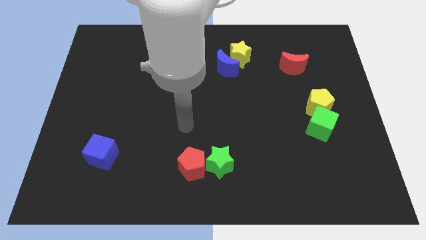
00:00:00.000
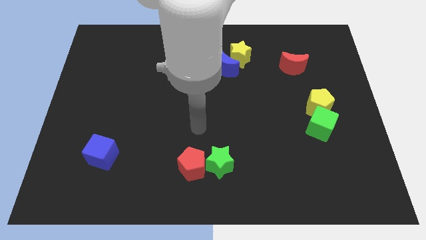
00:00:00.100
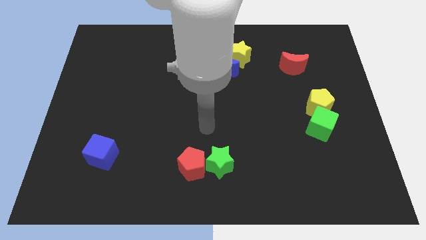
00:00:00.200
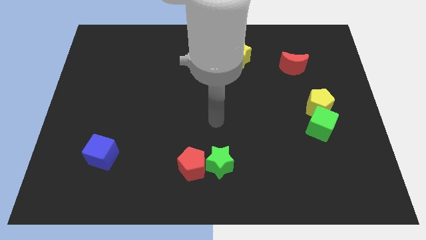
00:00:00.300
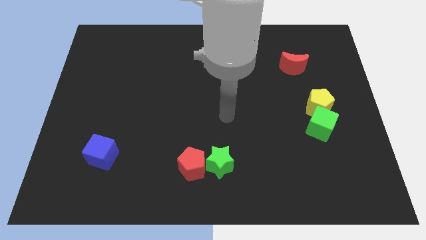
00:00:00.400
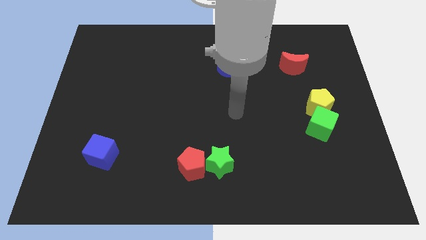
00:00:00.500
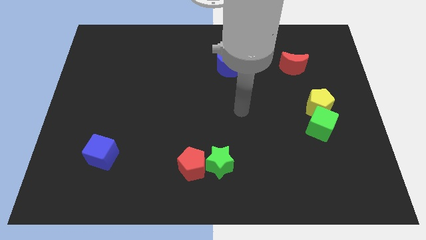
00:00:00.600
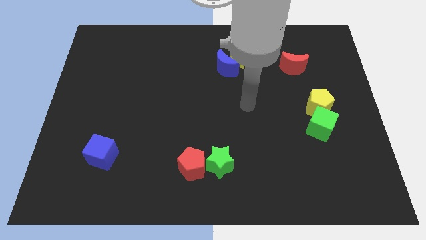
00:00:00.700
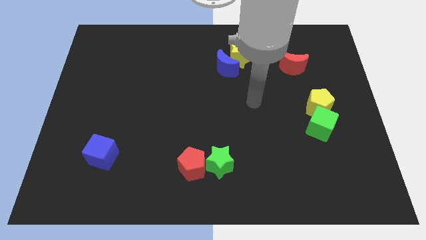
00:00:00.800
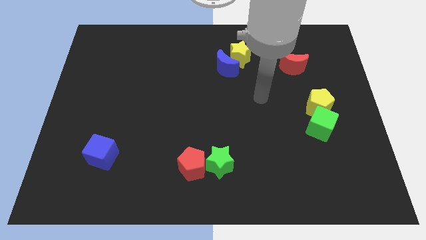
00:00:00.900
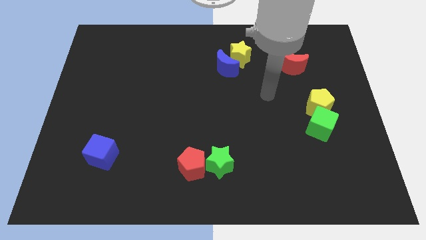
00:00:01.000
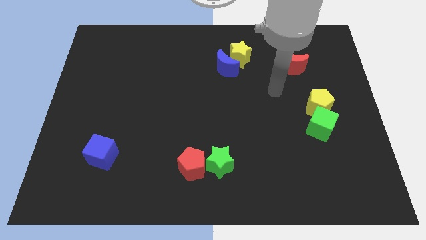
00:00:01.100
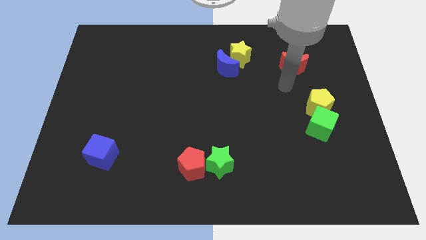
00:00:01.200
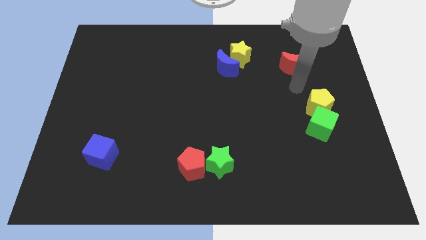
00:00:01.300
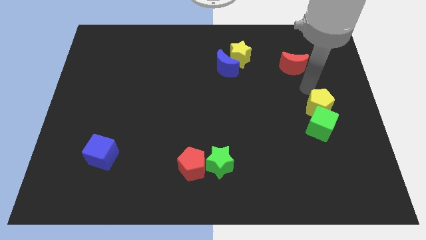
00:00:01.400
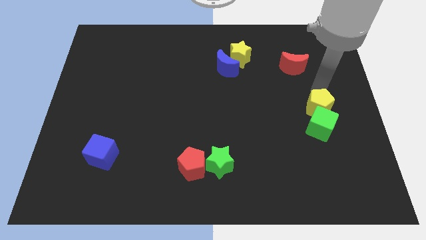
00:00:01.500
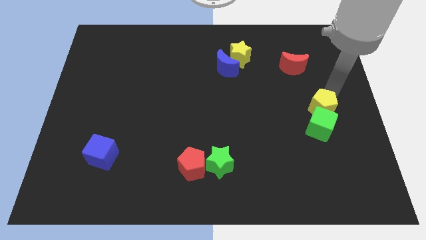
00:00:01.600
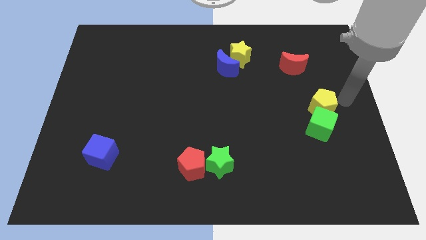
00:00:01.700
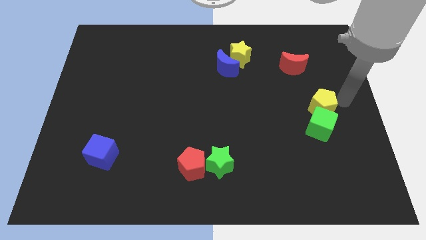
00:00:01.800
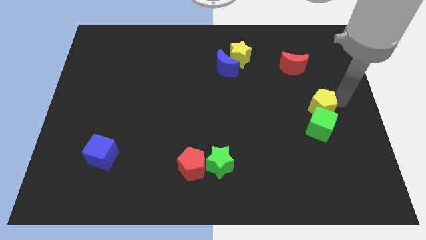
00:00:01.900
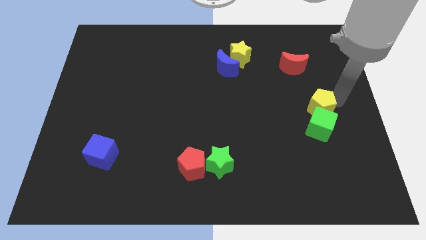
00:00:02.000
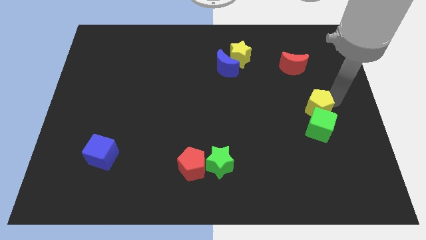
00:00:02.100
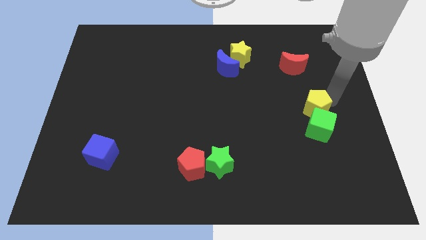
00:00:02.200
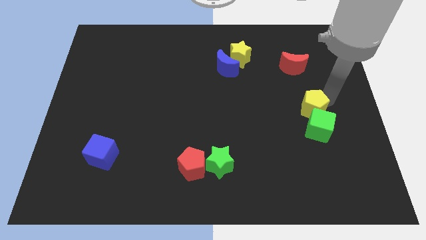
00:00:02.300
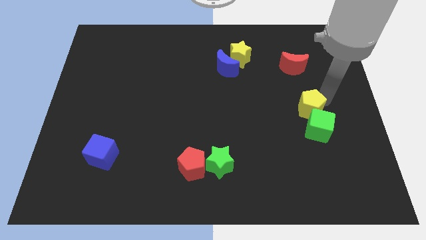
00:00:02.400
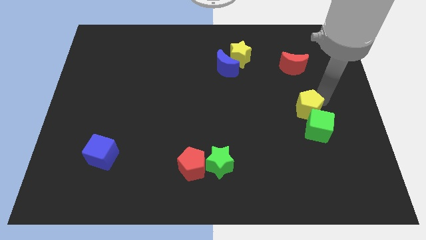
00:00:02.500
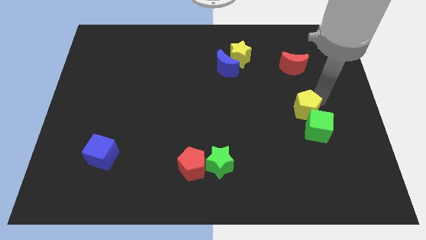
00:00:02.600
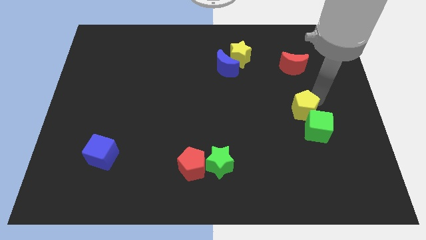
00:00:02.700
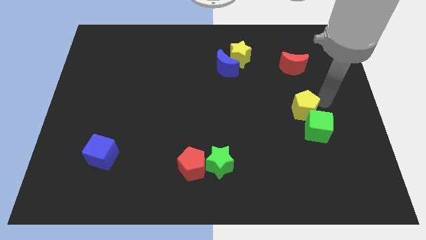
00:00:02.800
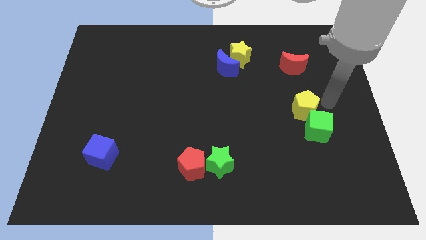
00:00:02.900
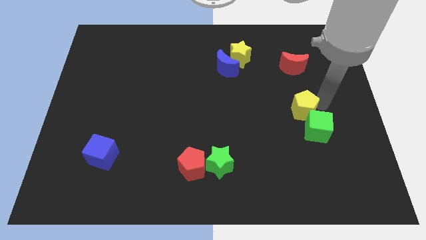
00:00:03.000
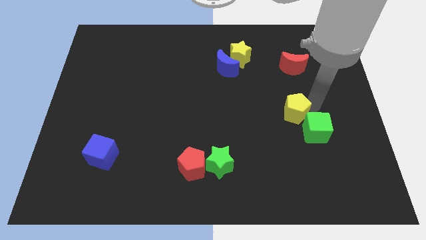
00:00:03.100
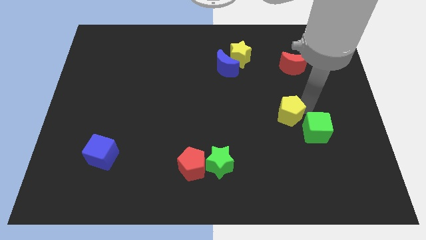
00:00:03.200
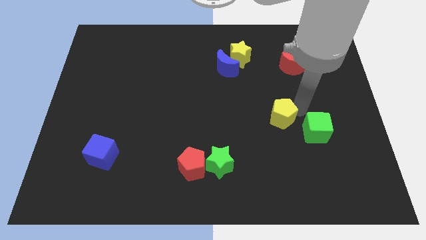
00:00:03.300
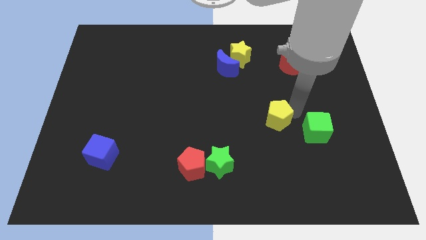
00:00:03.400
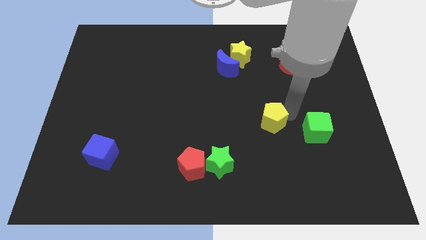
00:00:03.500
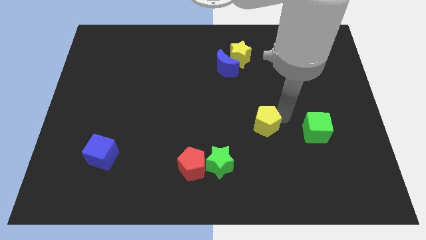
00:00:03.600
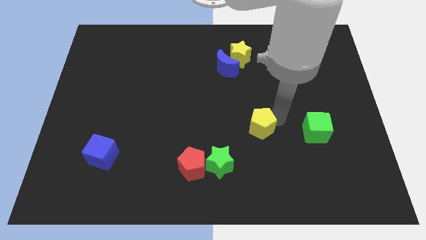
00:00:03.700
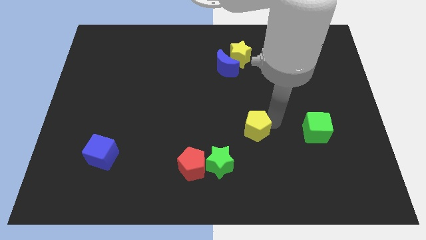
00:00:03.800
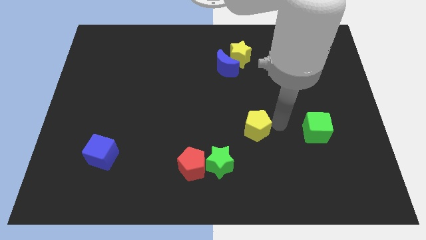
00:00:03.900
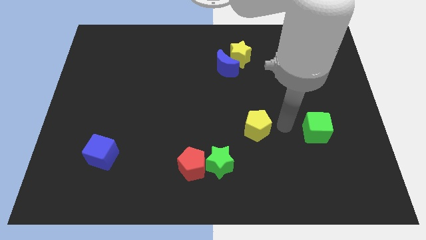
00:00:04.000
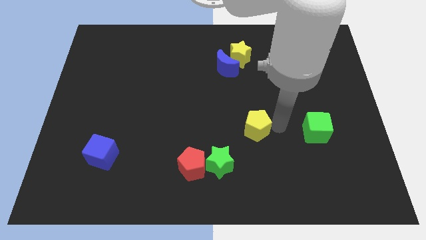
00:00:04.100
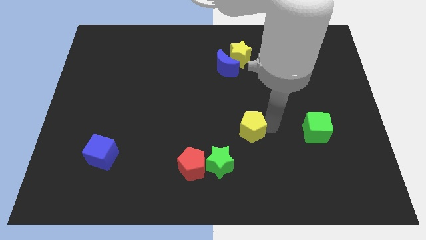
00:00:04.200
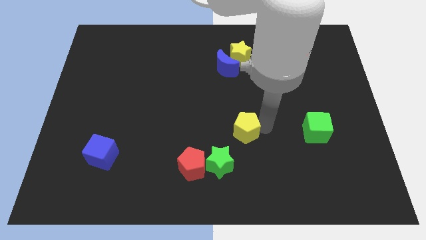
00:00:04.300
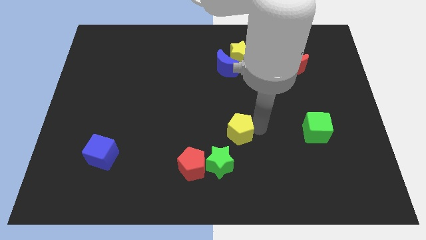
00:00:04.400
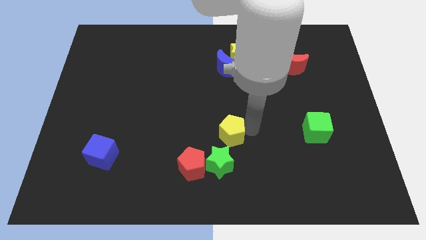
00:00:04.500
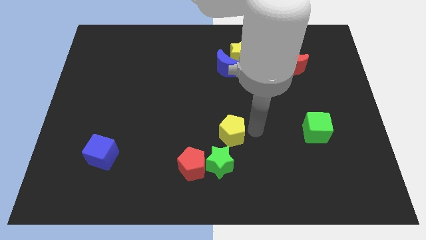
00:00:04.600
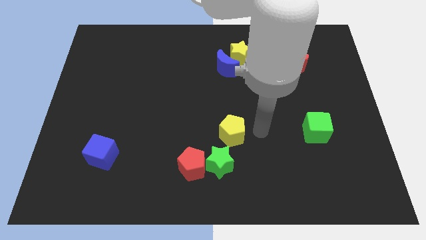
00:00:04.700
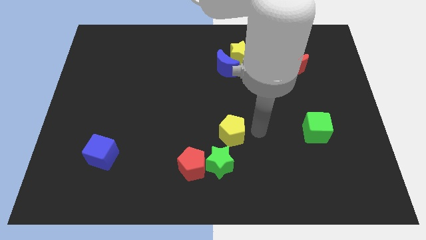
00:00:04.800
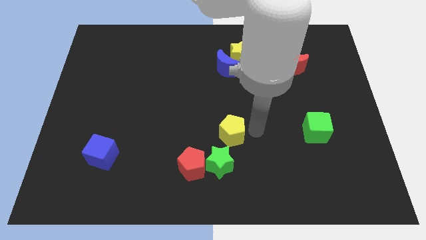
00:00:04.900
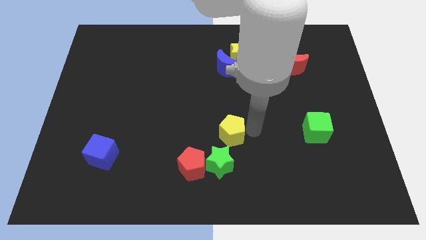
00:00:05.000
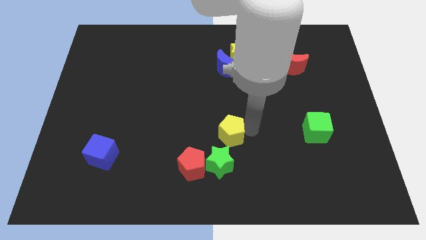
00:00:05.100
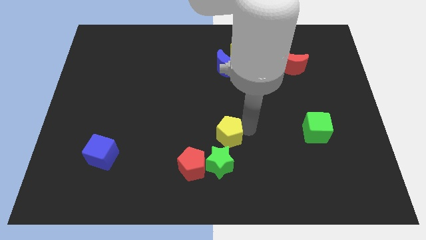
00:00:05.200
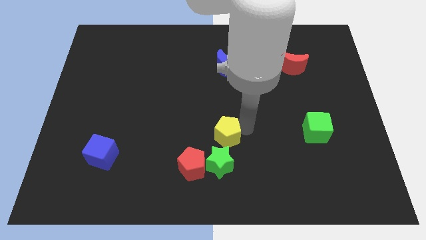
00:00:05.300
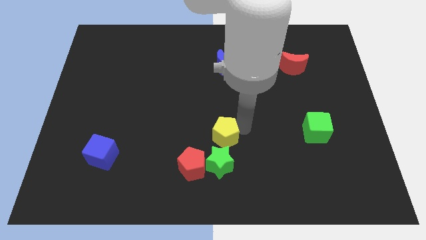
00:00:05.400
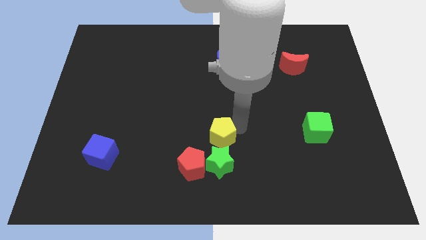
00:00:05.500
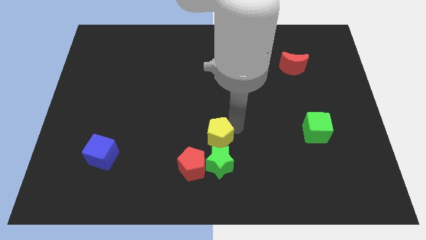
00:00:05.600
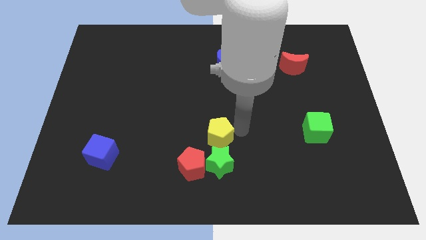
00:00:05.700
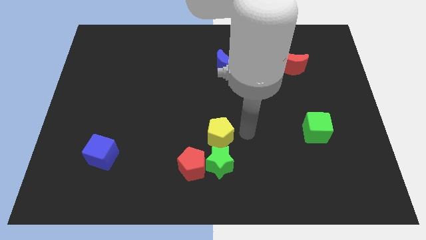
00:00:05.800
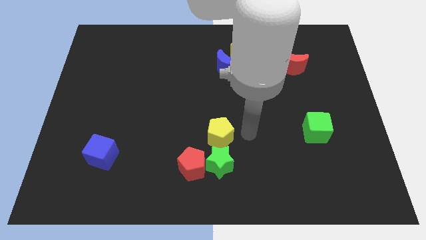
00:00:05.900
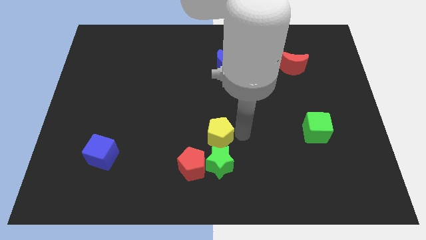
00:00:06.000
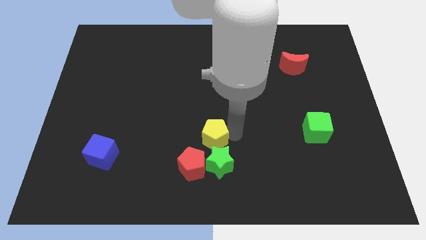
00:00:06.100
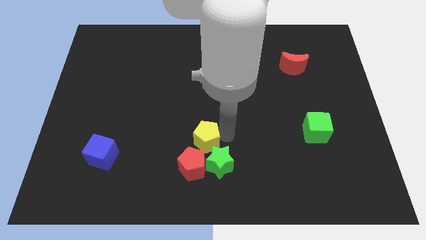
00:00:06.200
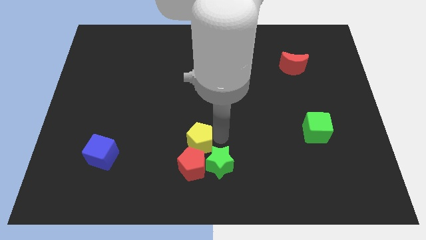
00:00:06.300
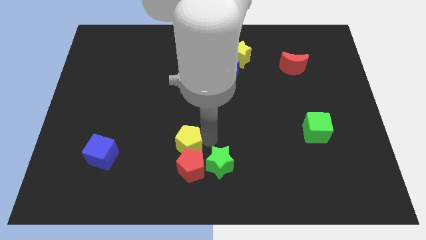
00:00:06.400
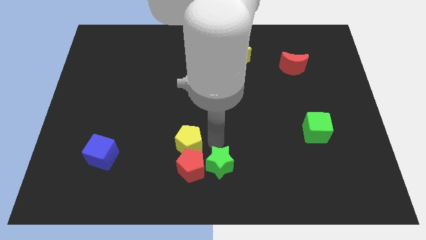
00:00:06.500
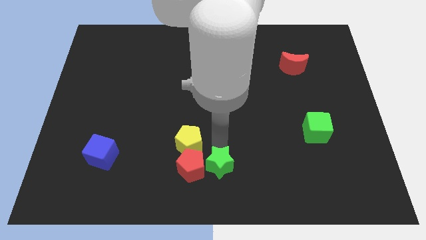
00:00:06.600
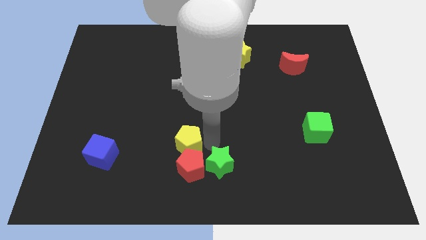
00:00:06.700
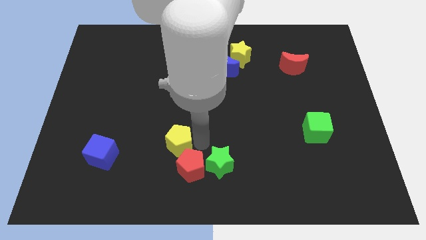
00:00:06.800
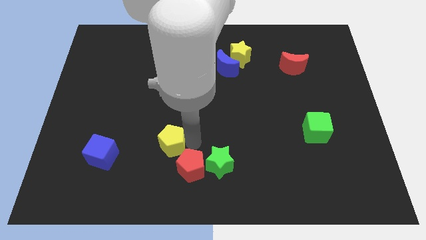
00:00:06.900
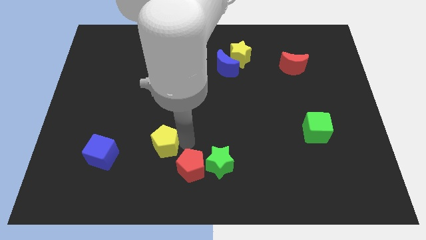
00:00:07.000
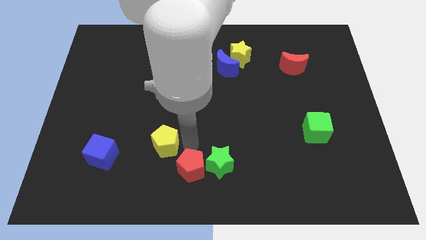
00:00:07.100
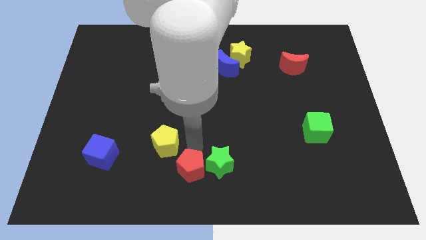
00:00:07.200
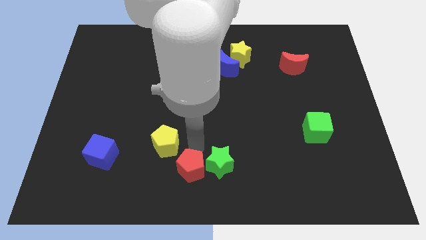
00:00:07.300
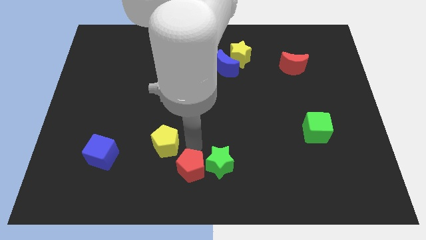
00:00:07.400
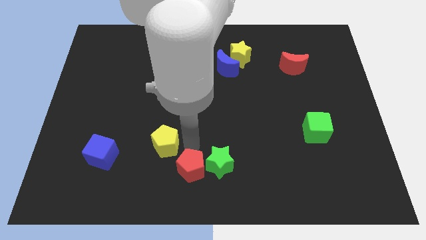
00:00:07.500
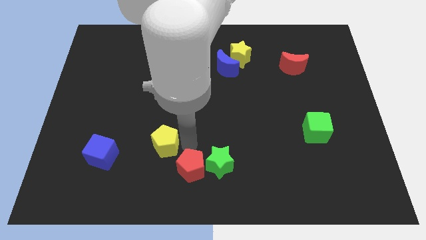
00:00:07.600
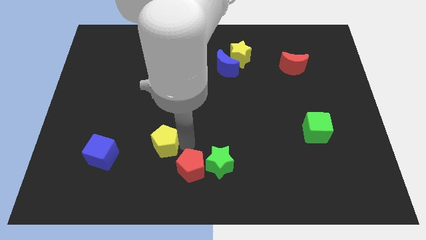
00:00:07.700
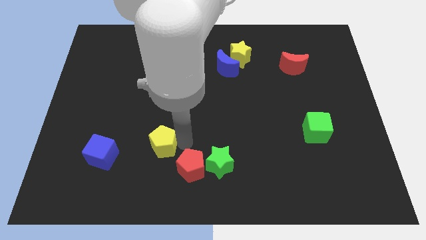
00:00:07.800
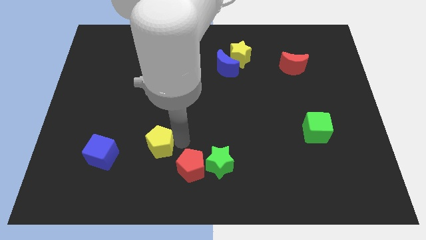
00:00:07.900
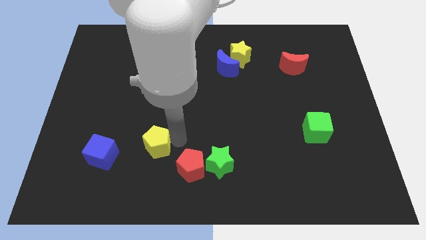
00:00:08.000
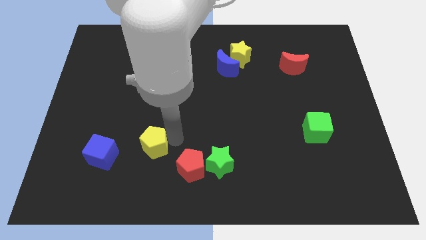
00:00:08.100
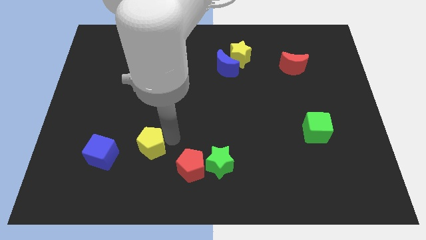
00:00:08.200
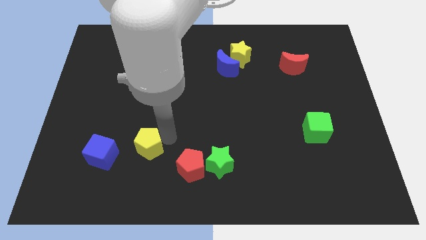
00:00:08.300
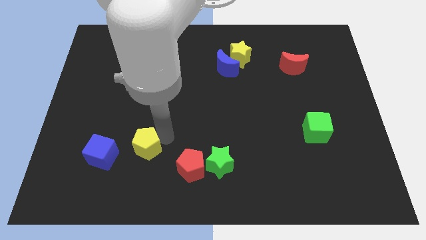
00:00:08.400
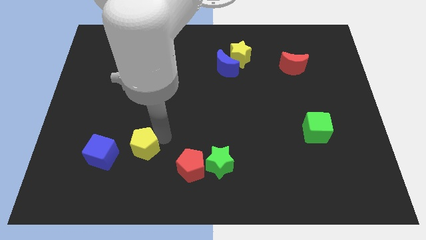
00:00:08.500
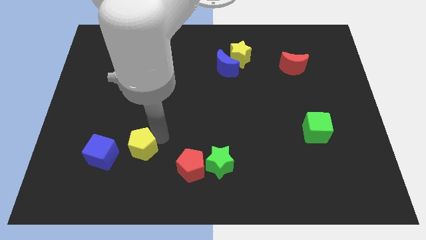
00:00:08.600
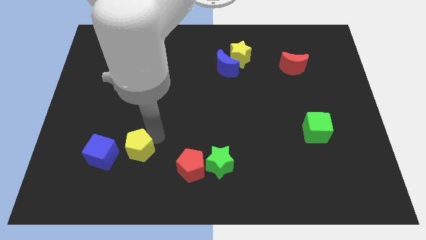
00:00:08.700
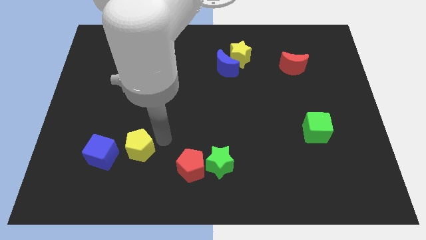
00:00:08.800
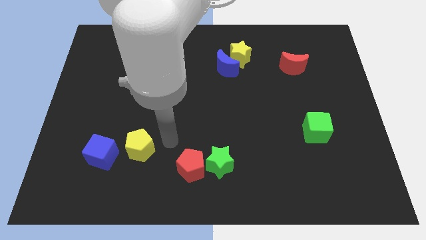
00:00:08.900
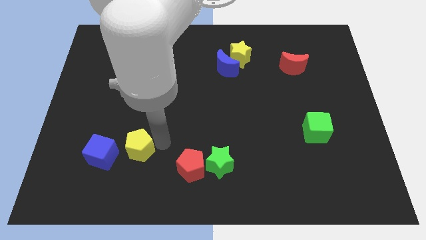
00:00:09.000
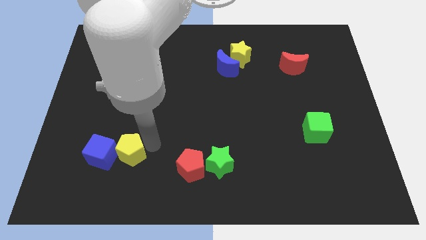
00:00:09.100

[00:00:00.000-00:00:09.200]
push the yellow pentagon next to the blue cube
